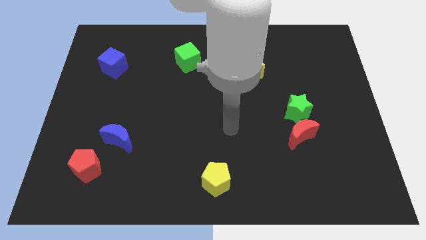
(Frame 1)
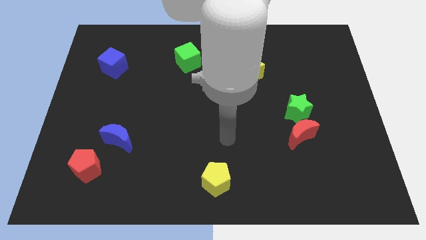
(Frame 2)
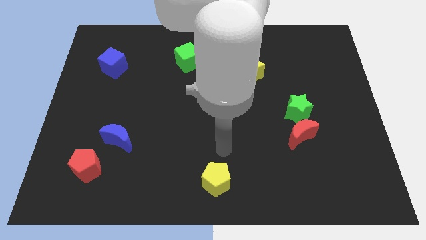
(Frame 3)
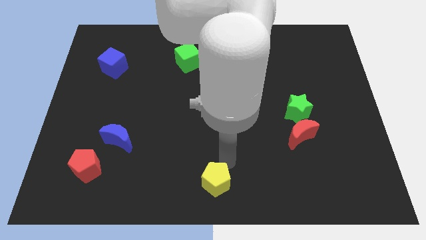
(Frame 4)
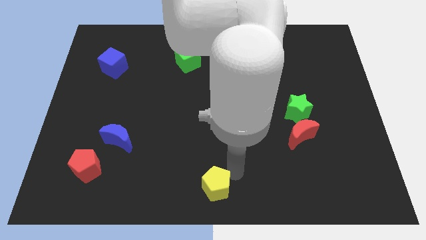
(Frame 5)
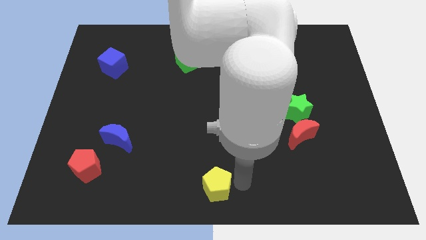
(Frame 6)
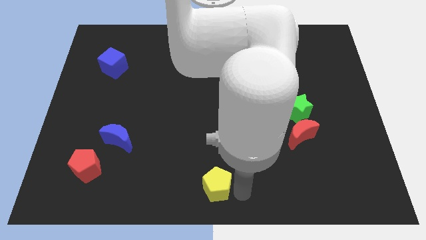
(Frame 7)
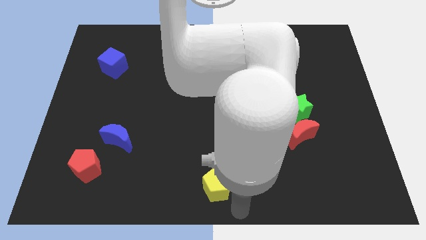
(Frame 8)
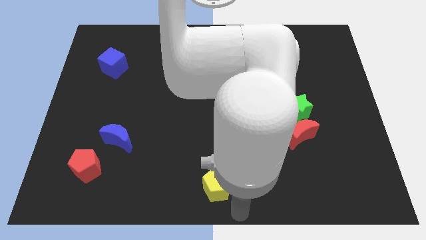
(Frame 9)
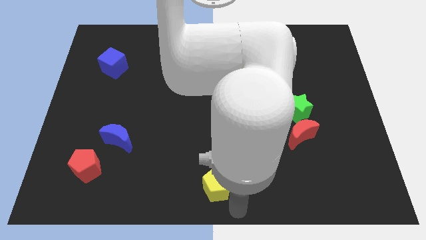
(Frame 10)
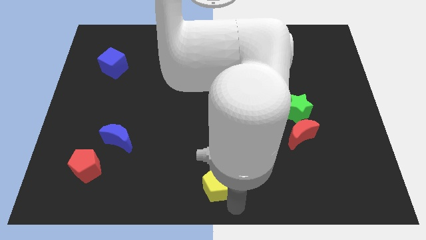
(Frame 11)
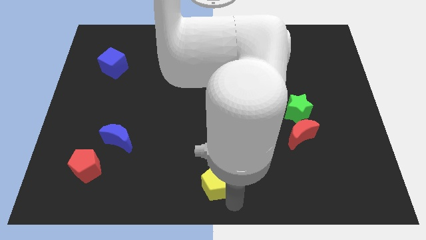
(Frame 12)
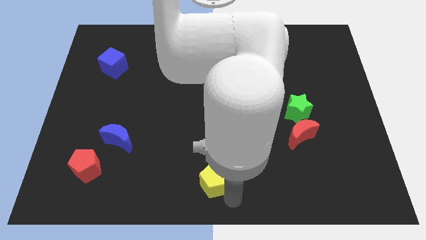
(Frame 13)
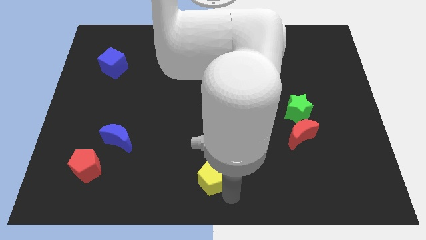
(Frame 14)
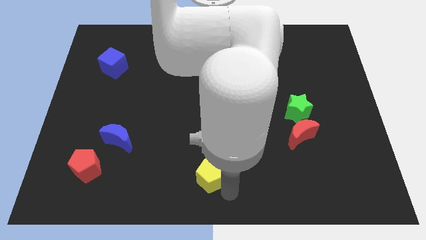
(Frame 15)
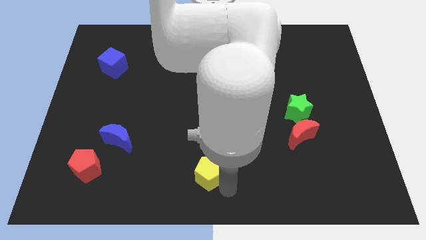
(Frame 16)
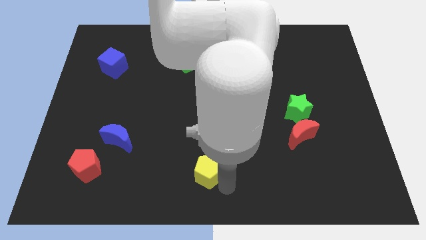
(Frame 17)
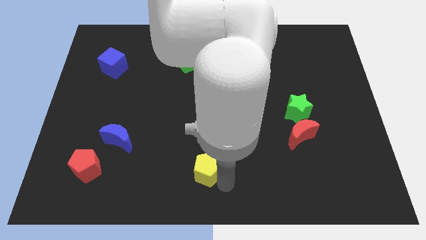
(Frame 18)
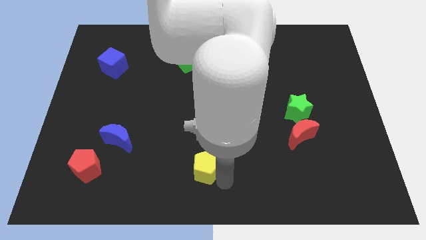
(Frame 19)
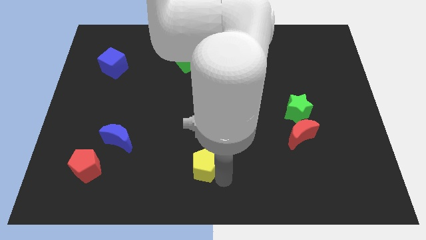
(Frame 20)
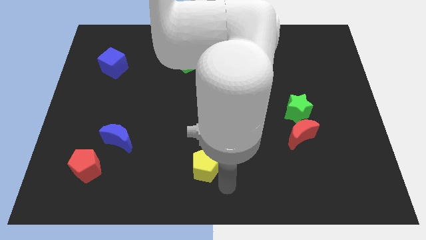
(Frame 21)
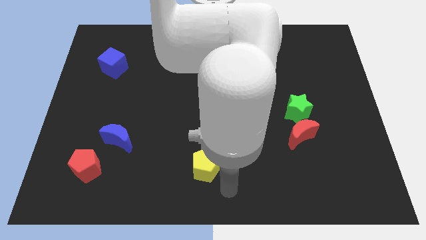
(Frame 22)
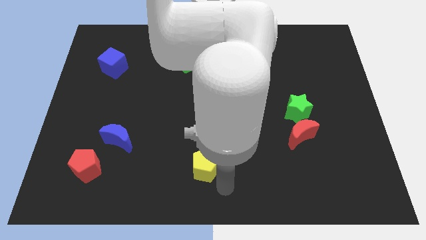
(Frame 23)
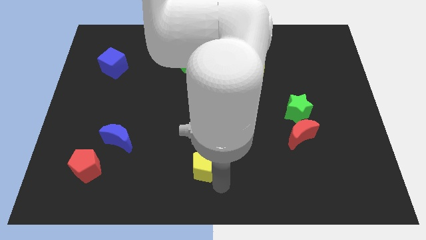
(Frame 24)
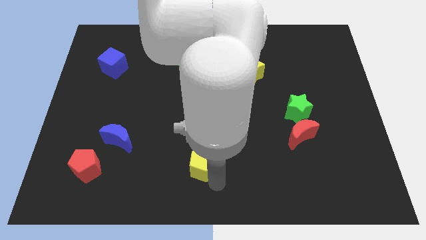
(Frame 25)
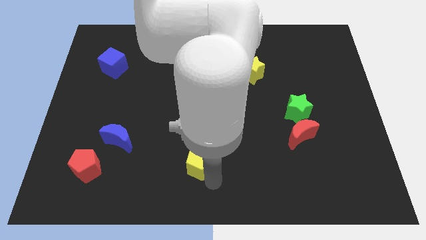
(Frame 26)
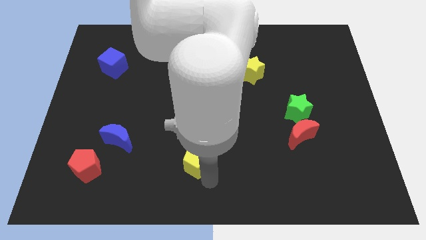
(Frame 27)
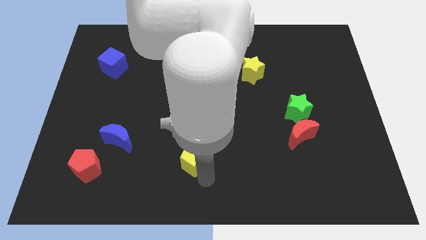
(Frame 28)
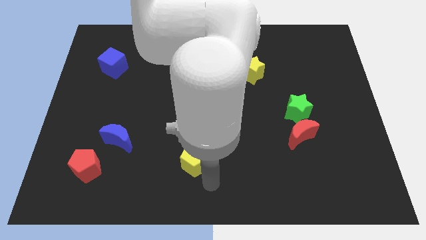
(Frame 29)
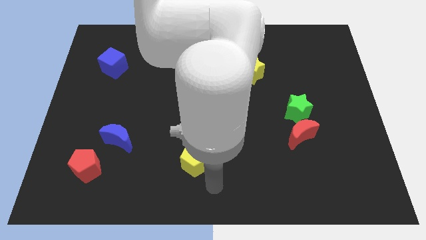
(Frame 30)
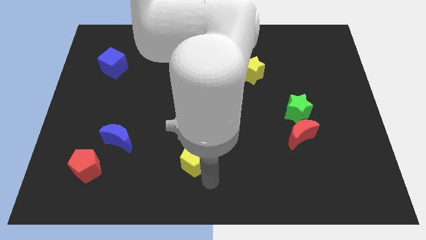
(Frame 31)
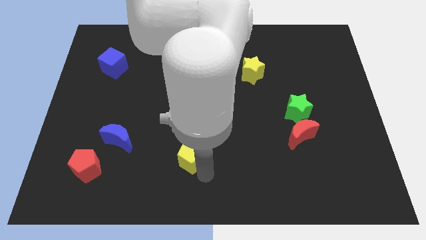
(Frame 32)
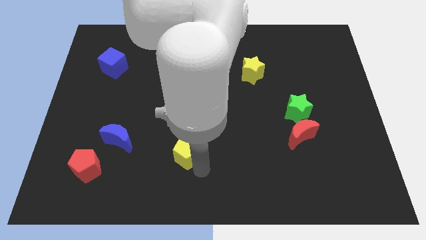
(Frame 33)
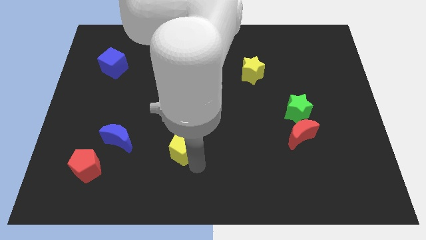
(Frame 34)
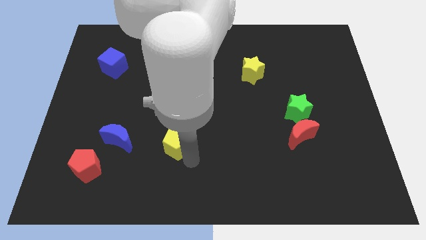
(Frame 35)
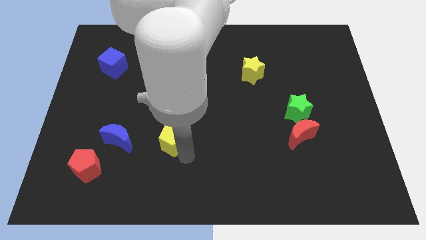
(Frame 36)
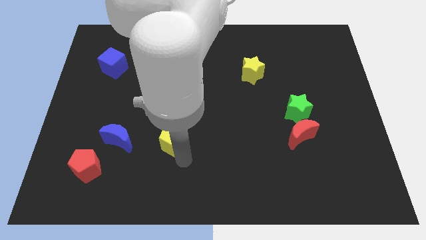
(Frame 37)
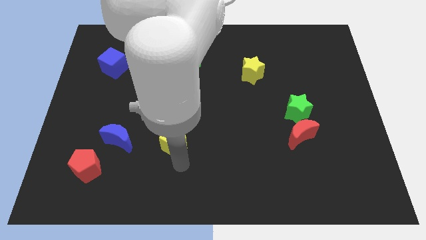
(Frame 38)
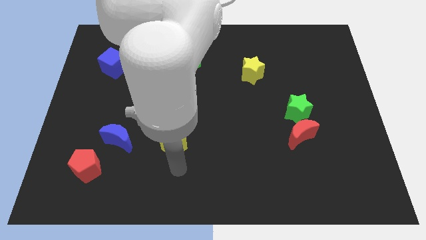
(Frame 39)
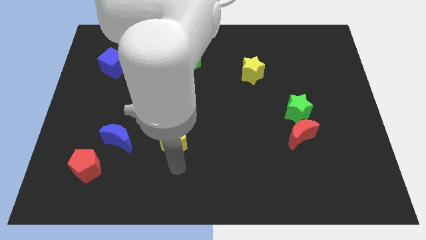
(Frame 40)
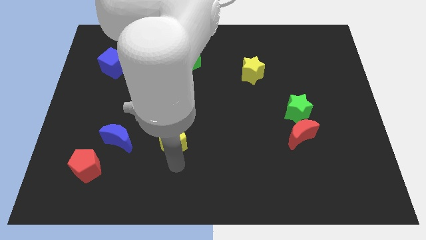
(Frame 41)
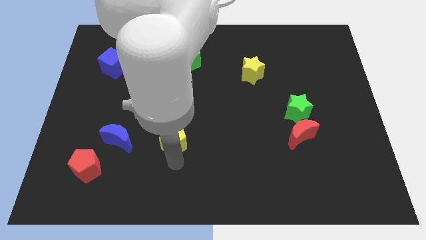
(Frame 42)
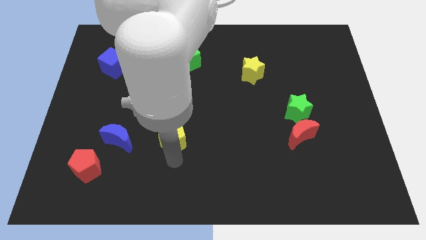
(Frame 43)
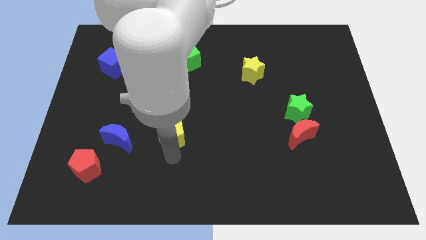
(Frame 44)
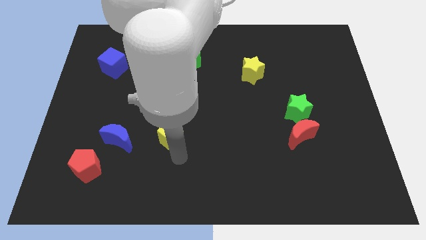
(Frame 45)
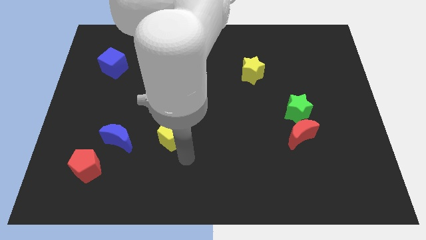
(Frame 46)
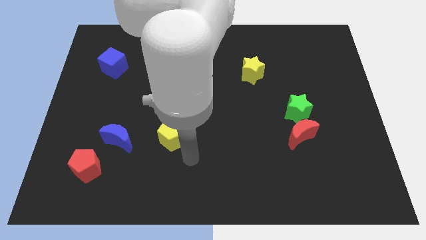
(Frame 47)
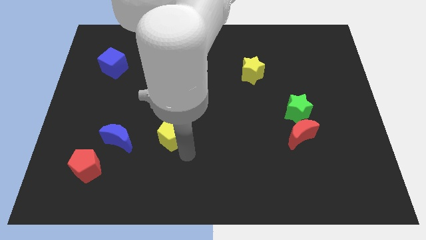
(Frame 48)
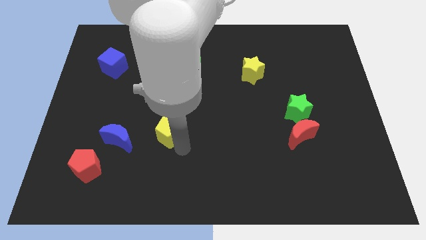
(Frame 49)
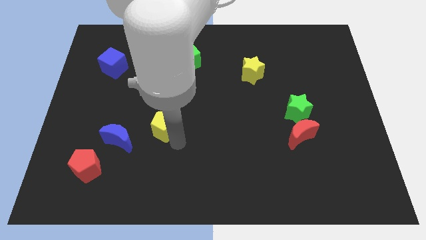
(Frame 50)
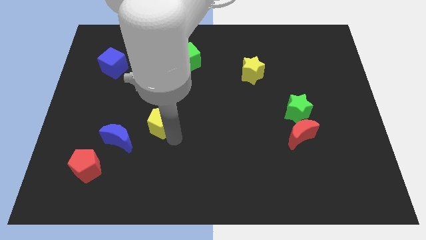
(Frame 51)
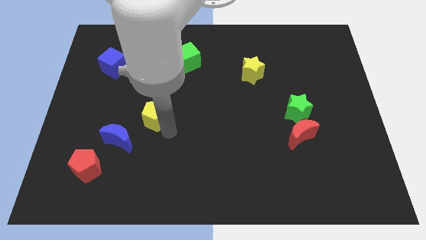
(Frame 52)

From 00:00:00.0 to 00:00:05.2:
push the yellow pentagon up and to the left diagonally

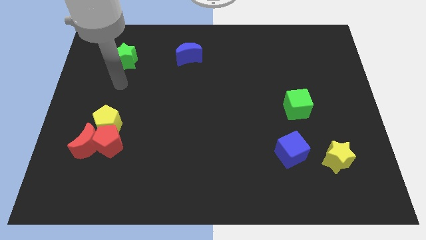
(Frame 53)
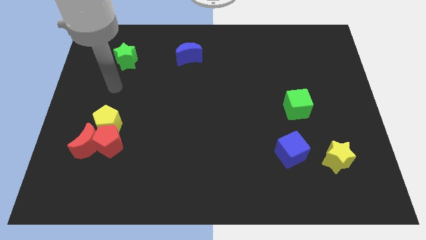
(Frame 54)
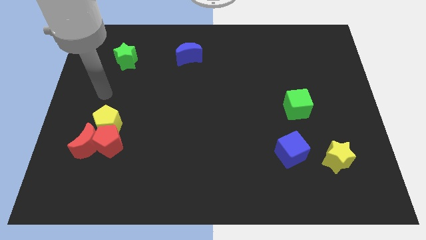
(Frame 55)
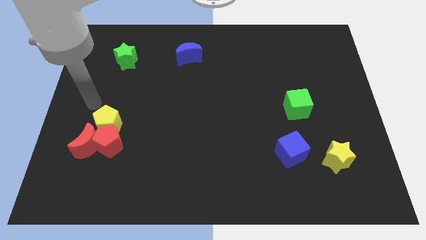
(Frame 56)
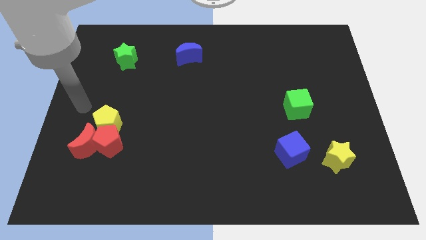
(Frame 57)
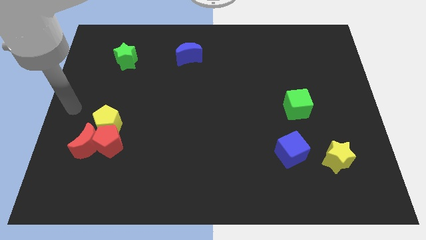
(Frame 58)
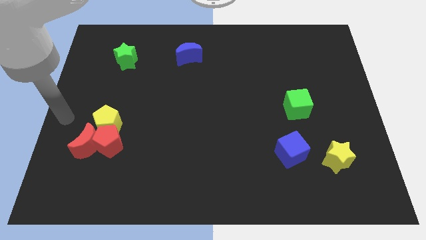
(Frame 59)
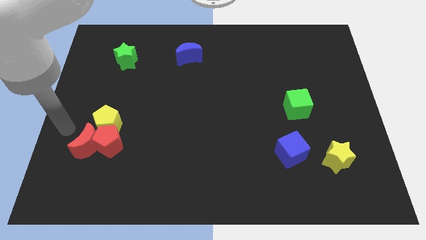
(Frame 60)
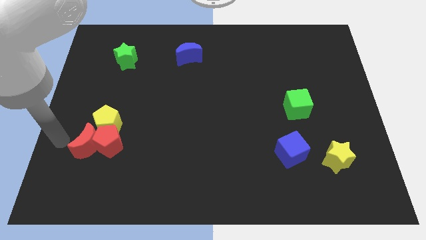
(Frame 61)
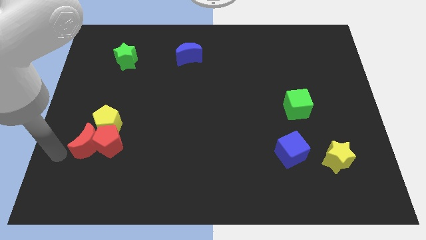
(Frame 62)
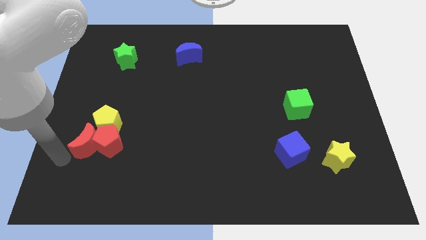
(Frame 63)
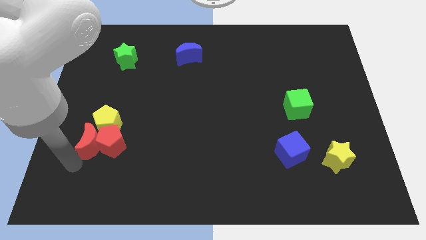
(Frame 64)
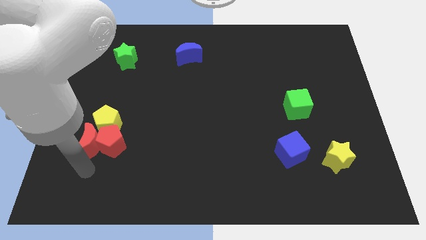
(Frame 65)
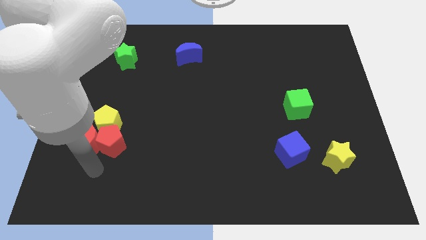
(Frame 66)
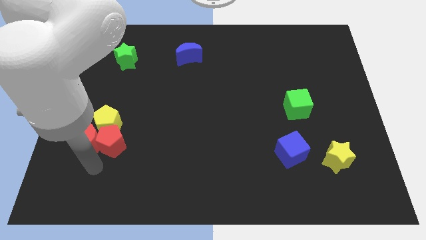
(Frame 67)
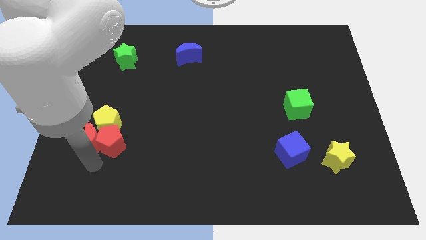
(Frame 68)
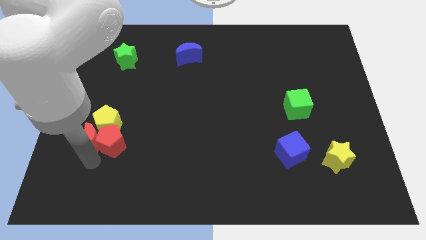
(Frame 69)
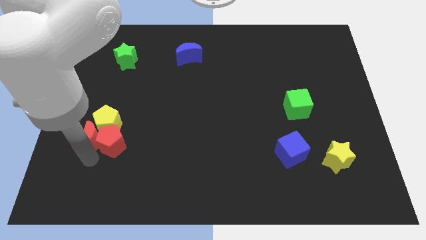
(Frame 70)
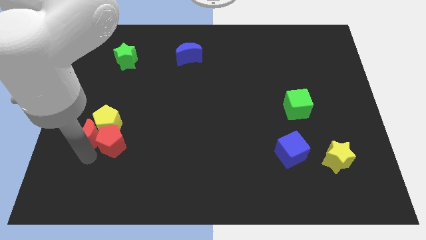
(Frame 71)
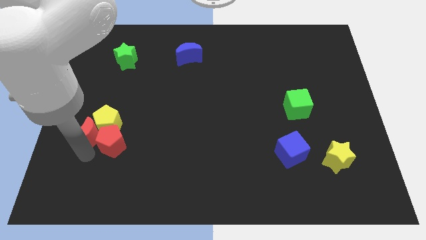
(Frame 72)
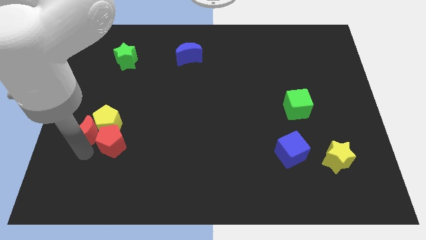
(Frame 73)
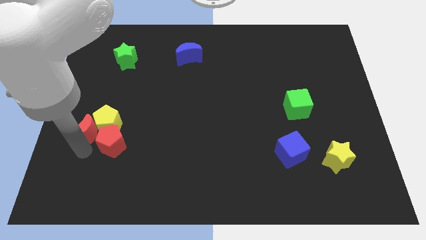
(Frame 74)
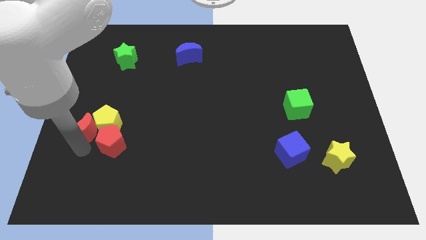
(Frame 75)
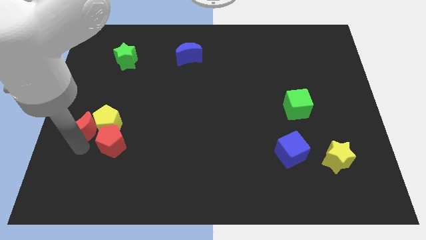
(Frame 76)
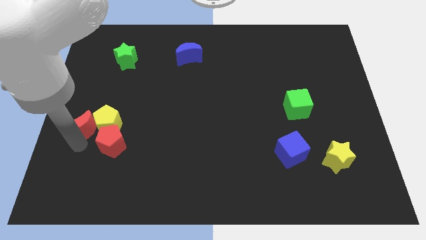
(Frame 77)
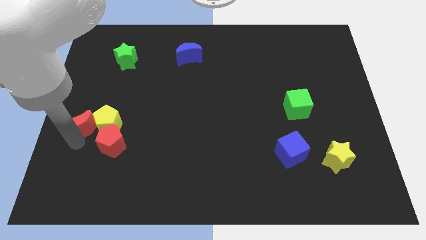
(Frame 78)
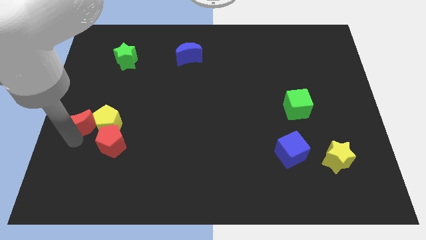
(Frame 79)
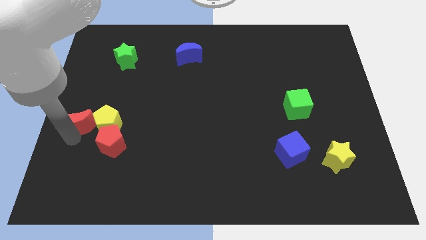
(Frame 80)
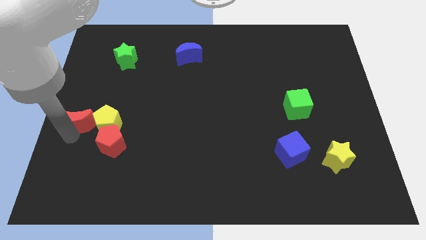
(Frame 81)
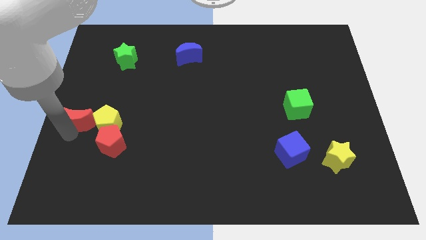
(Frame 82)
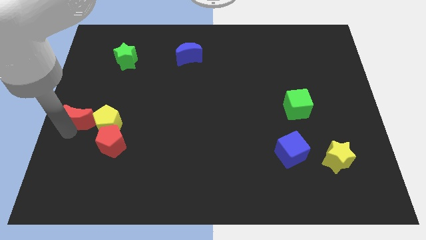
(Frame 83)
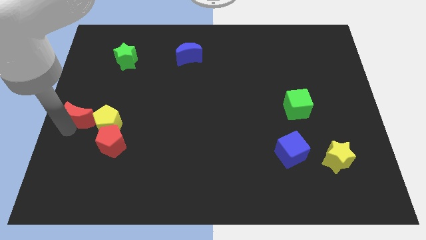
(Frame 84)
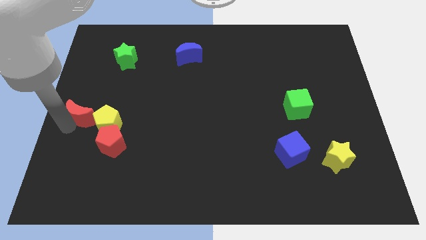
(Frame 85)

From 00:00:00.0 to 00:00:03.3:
push the red moon somewhat upwards
